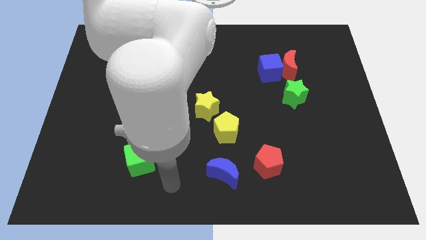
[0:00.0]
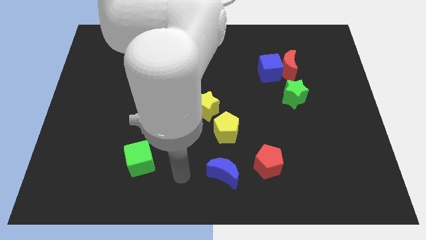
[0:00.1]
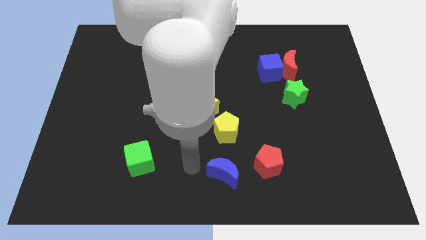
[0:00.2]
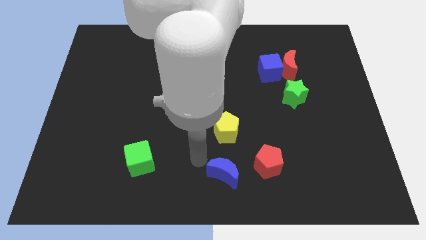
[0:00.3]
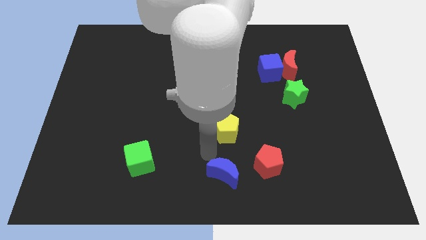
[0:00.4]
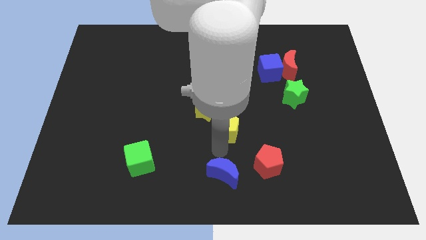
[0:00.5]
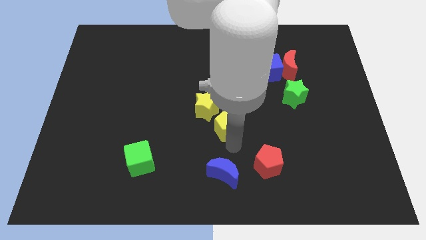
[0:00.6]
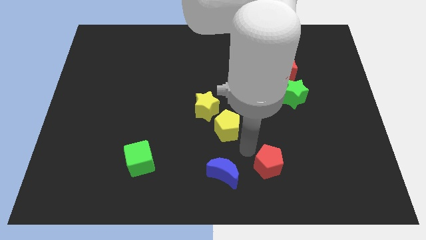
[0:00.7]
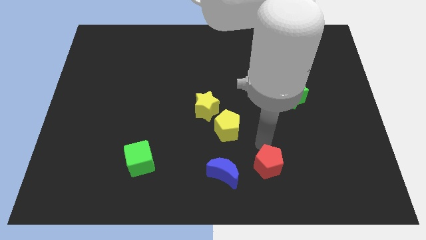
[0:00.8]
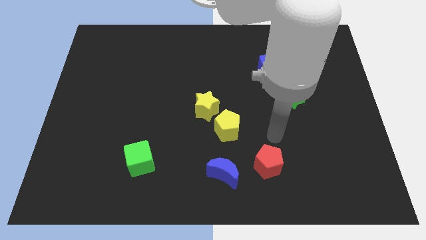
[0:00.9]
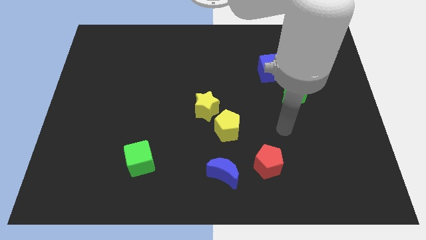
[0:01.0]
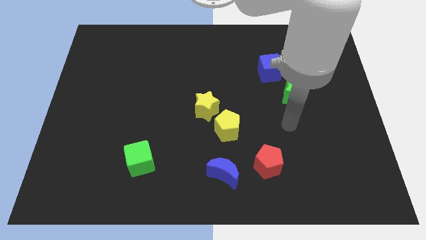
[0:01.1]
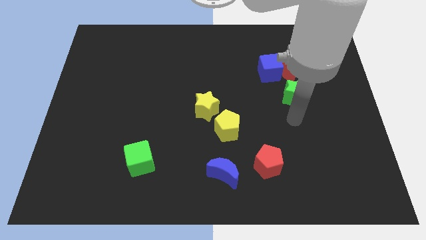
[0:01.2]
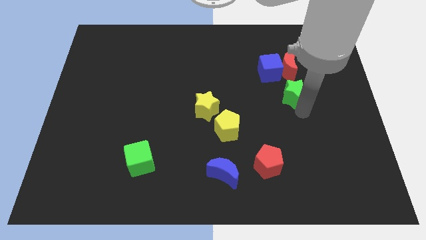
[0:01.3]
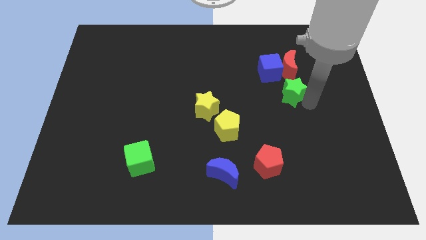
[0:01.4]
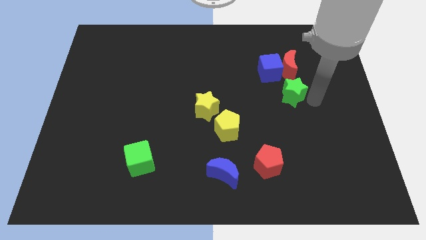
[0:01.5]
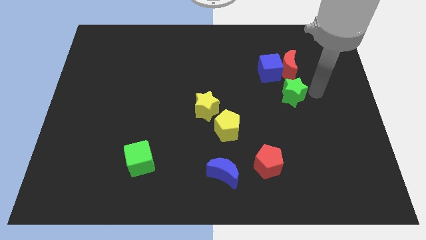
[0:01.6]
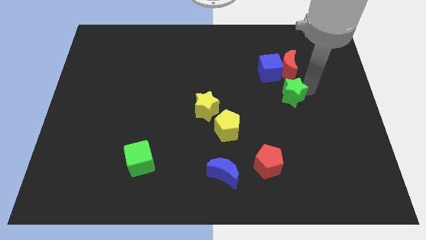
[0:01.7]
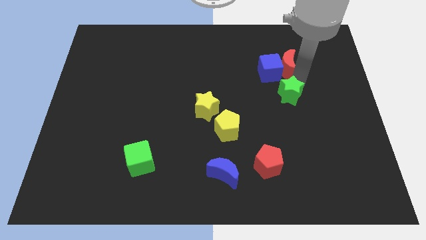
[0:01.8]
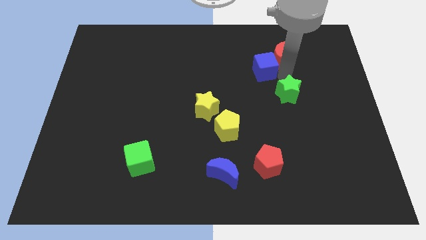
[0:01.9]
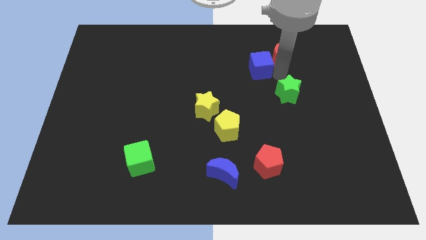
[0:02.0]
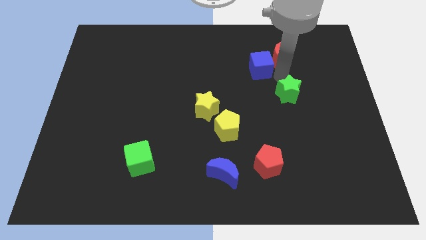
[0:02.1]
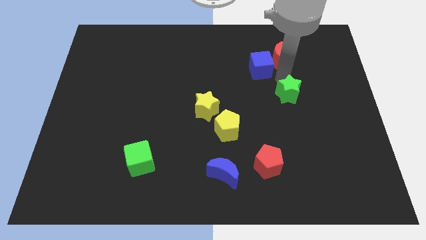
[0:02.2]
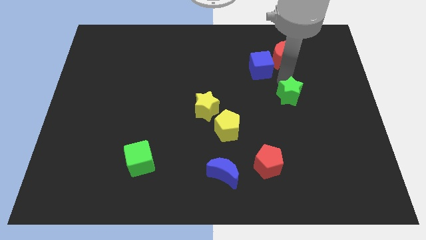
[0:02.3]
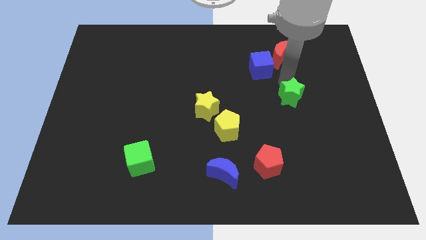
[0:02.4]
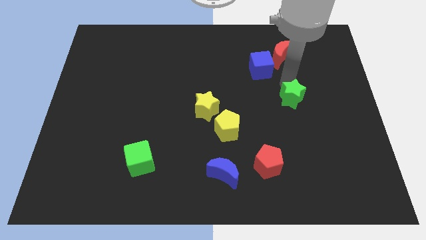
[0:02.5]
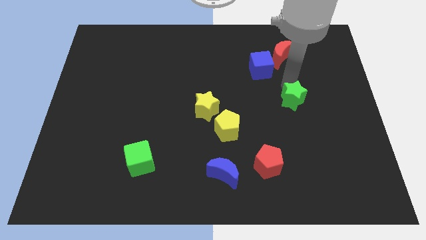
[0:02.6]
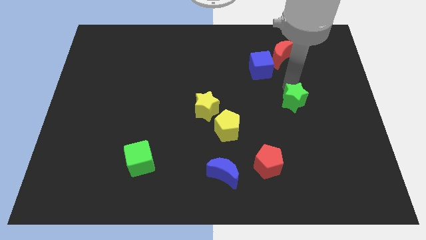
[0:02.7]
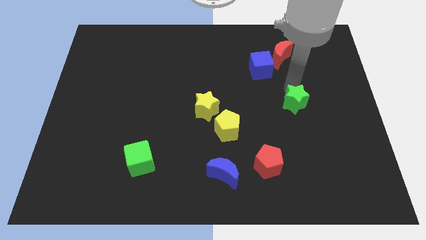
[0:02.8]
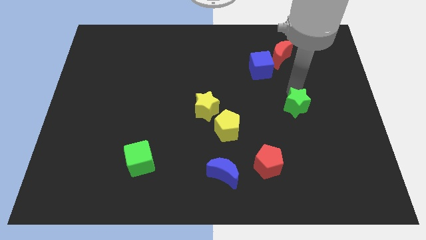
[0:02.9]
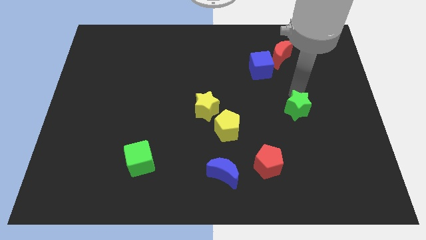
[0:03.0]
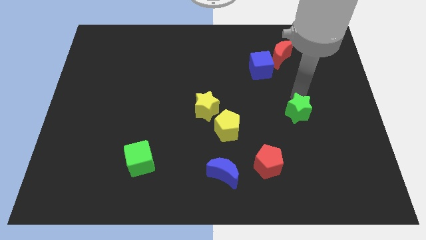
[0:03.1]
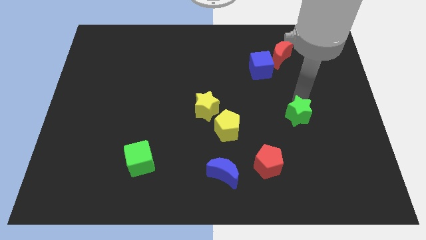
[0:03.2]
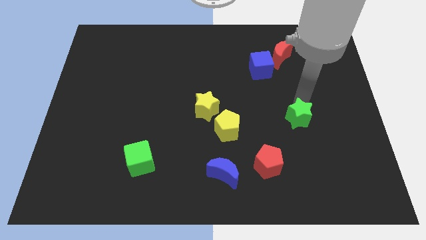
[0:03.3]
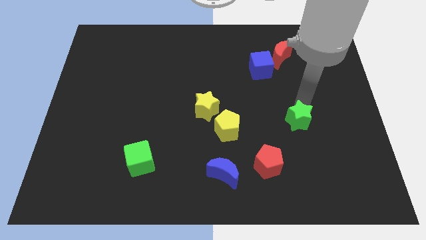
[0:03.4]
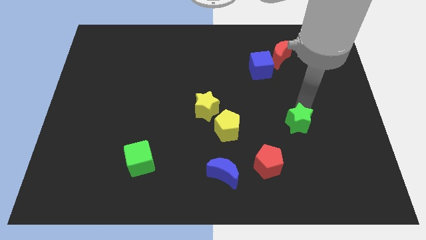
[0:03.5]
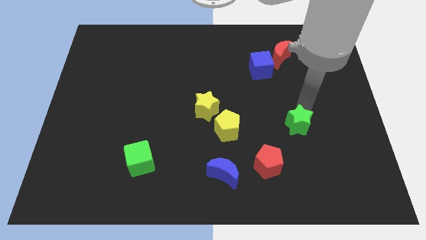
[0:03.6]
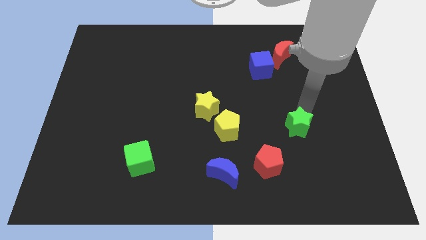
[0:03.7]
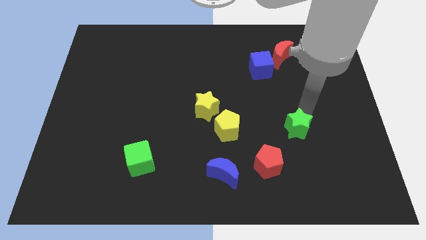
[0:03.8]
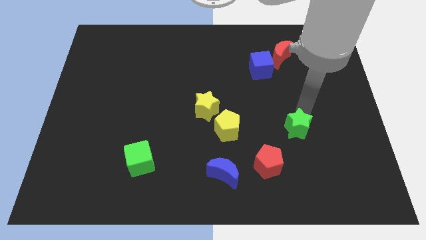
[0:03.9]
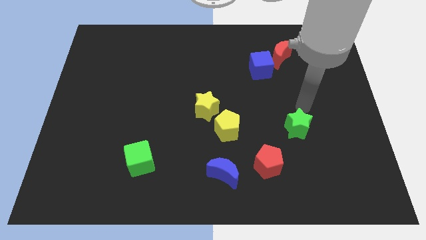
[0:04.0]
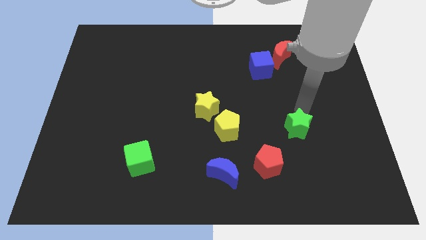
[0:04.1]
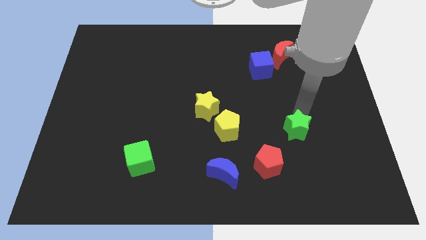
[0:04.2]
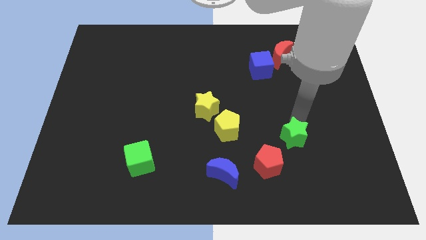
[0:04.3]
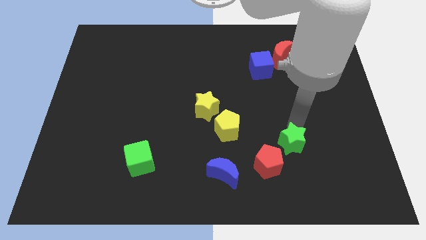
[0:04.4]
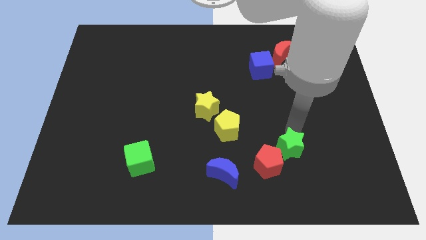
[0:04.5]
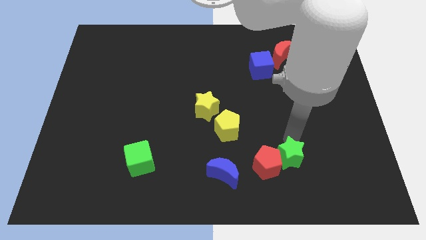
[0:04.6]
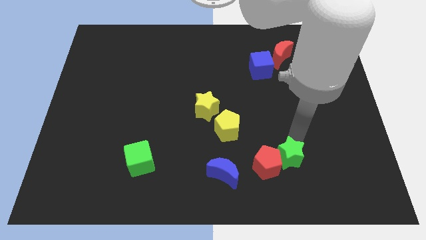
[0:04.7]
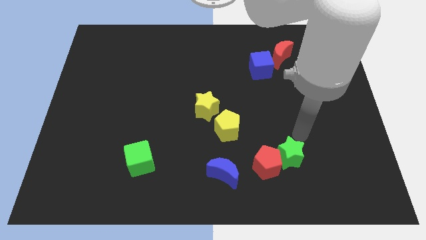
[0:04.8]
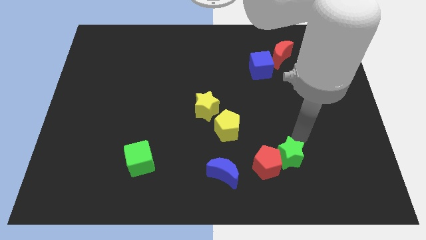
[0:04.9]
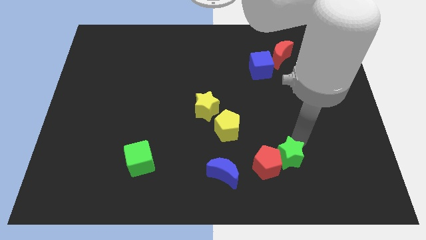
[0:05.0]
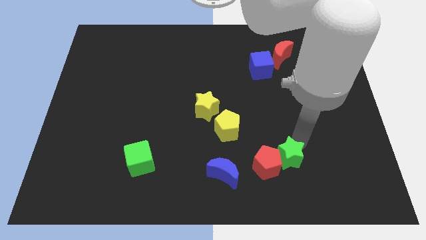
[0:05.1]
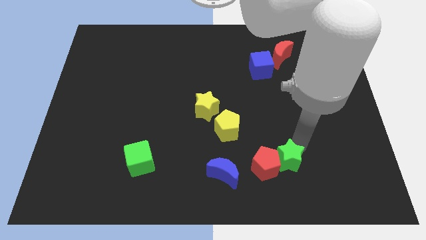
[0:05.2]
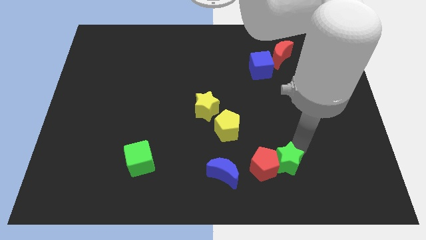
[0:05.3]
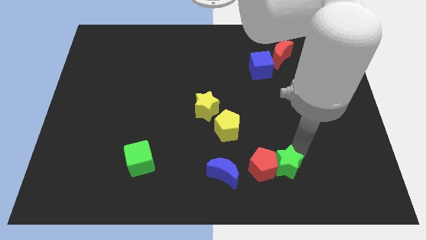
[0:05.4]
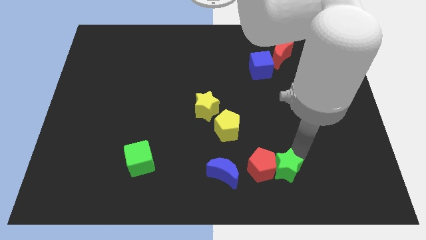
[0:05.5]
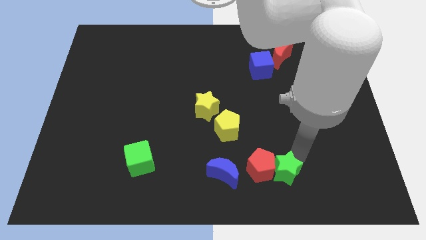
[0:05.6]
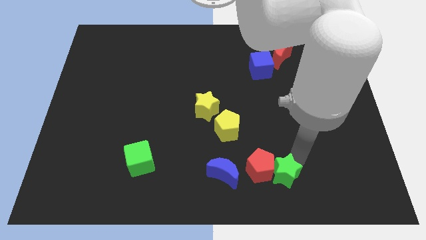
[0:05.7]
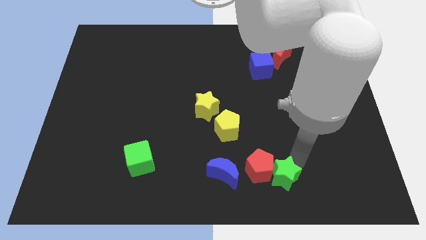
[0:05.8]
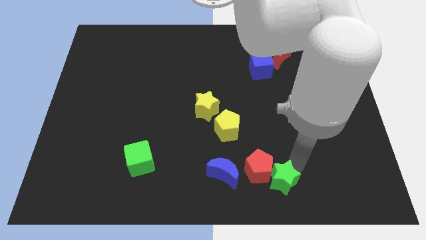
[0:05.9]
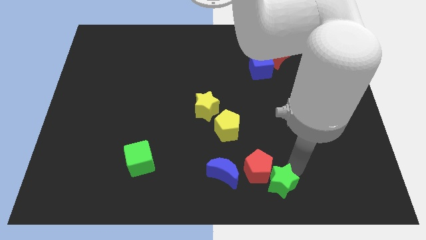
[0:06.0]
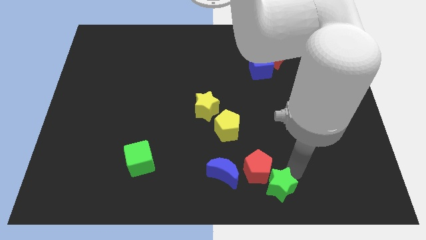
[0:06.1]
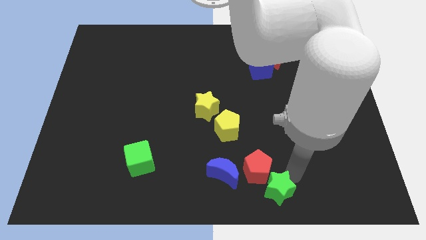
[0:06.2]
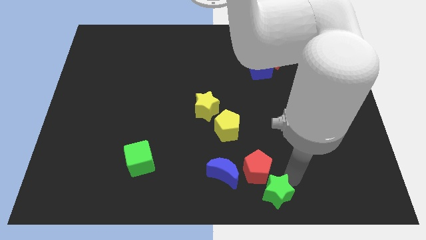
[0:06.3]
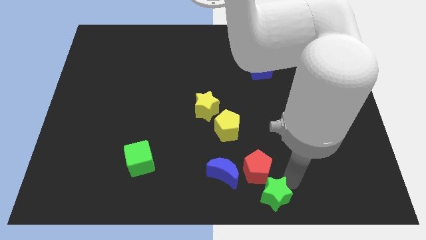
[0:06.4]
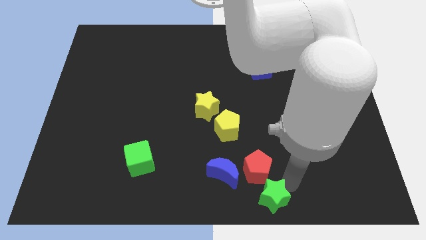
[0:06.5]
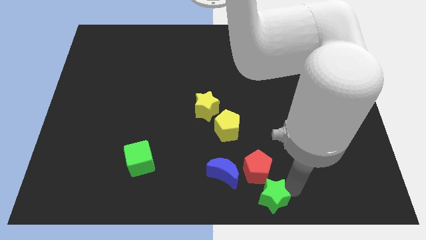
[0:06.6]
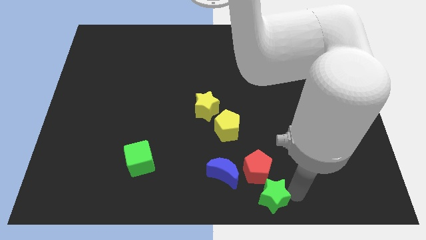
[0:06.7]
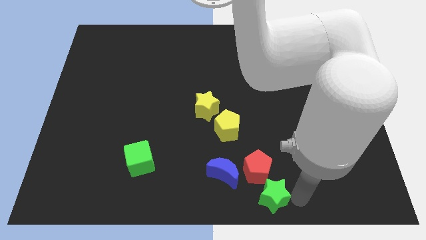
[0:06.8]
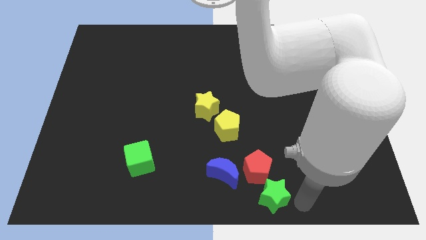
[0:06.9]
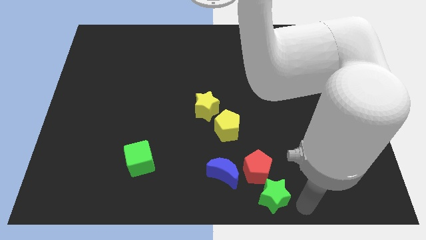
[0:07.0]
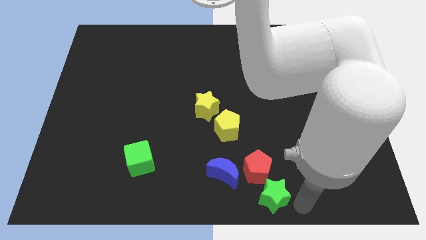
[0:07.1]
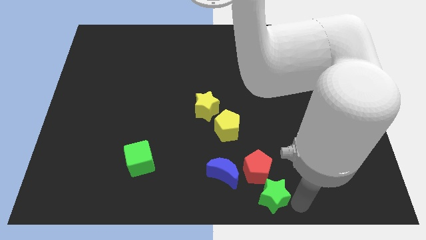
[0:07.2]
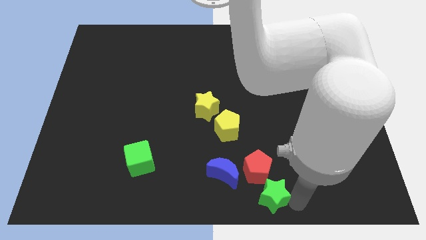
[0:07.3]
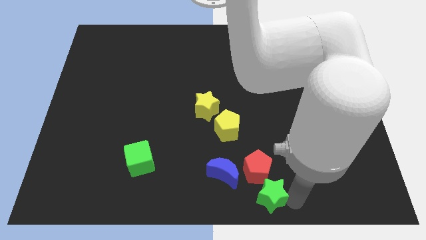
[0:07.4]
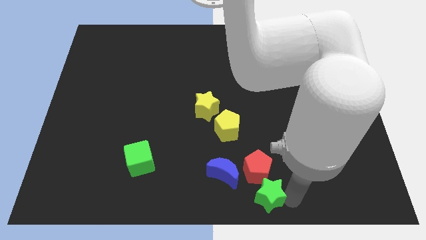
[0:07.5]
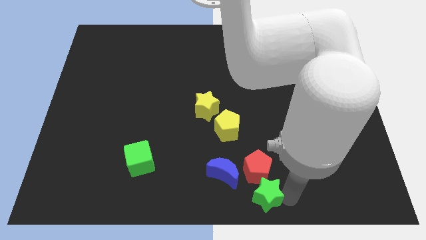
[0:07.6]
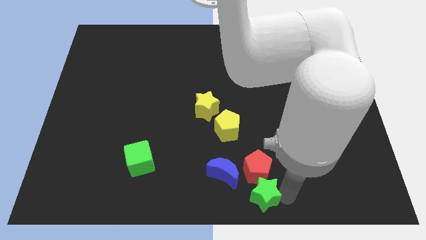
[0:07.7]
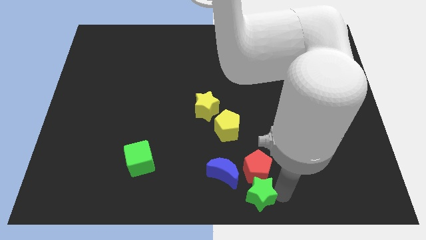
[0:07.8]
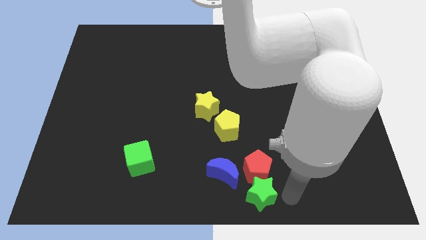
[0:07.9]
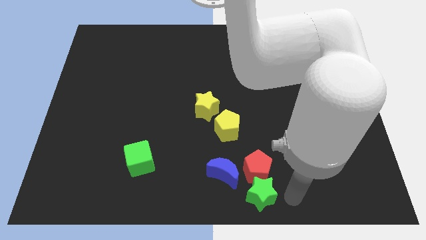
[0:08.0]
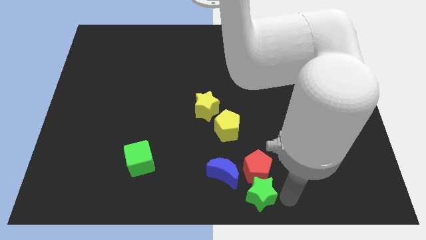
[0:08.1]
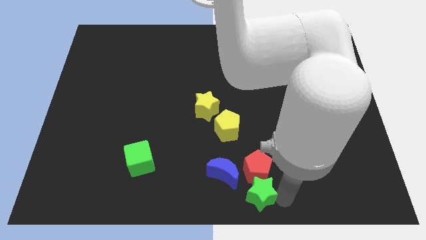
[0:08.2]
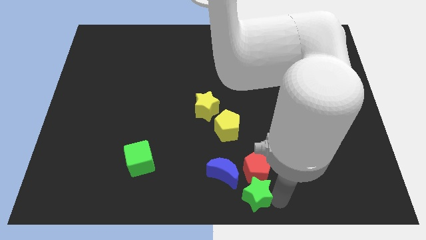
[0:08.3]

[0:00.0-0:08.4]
push the green star down and then to the left
